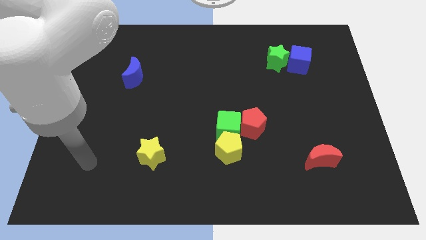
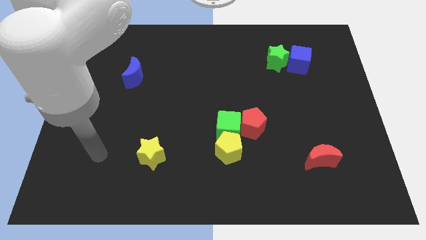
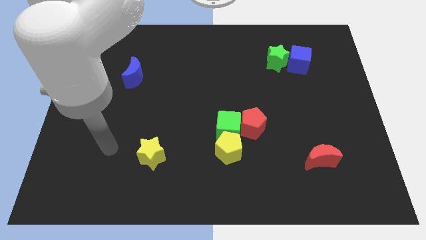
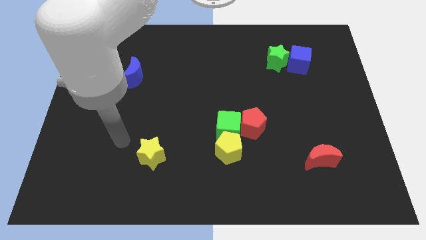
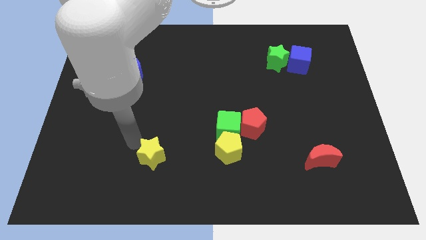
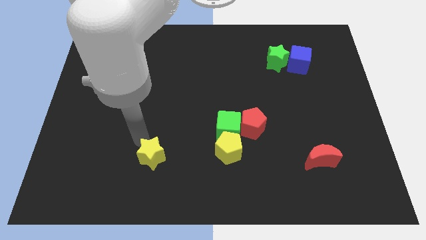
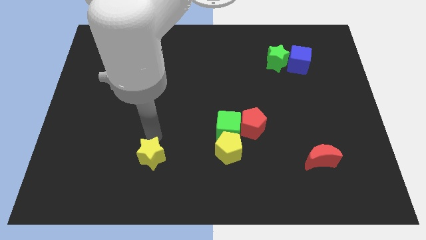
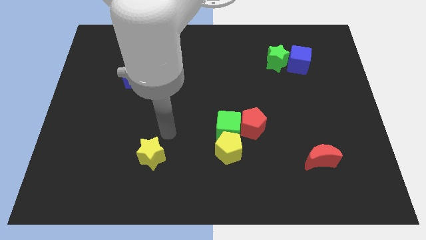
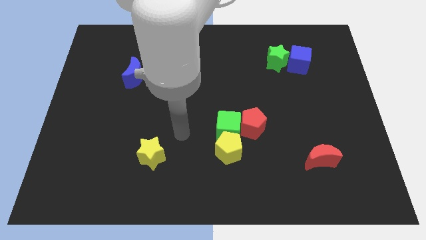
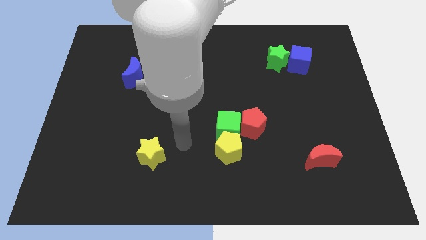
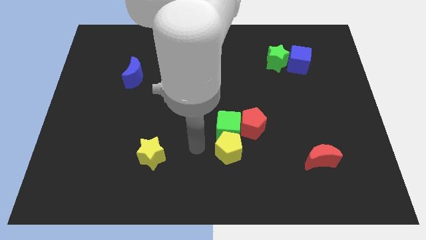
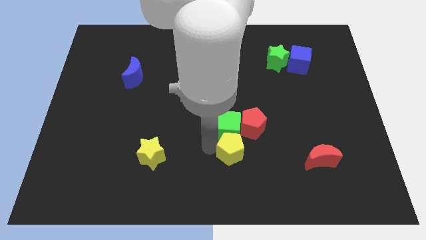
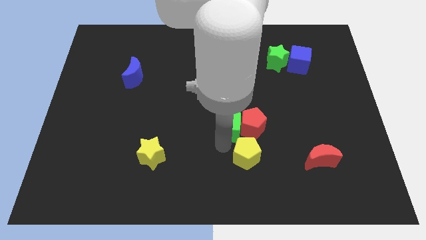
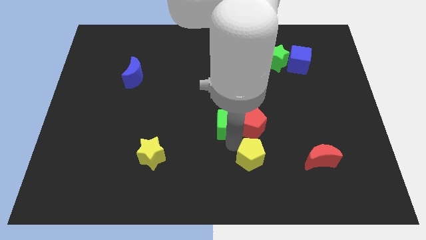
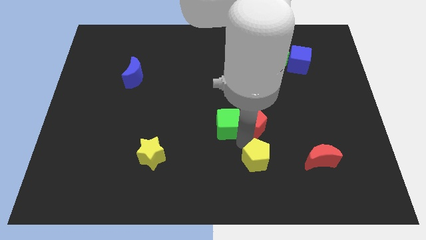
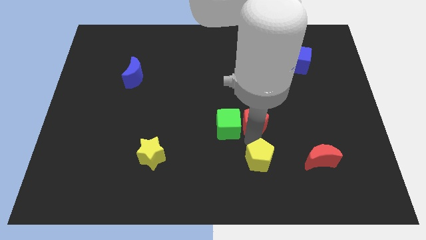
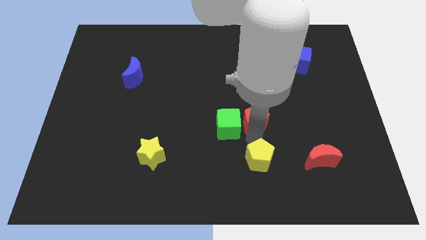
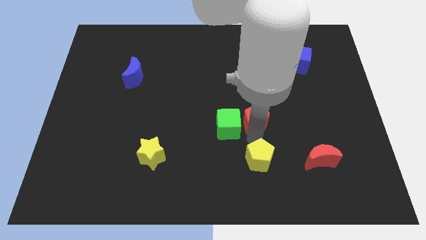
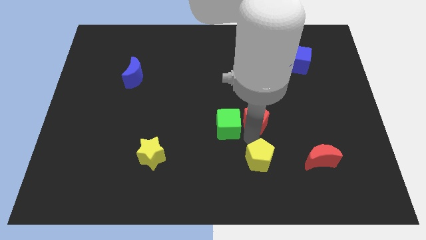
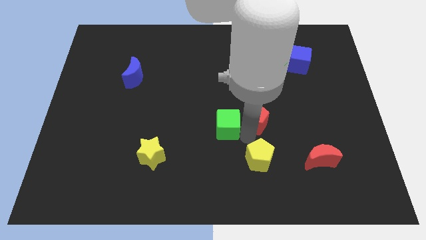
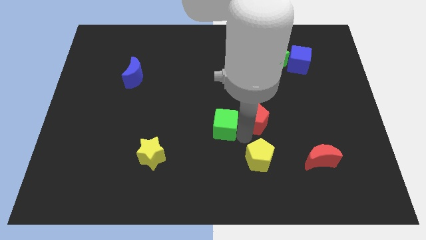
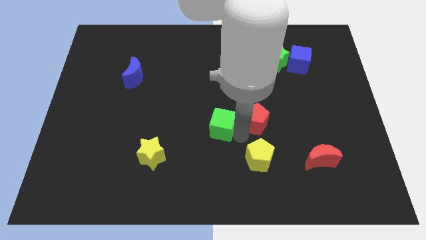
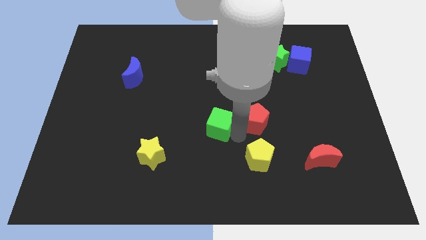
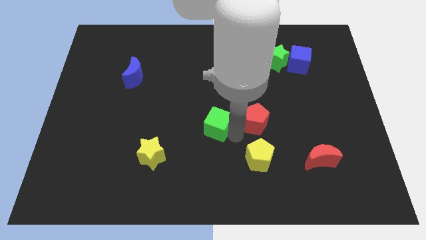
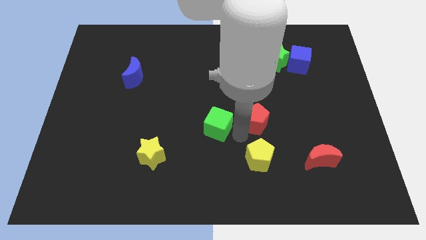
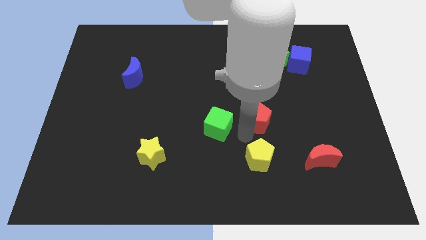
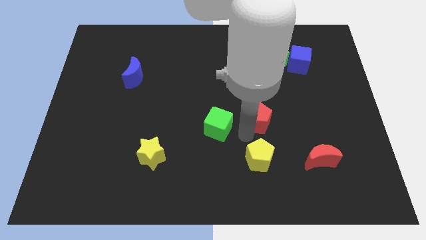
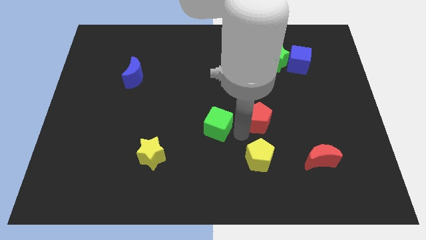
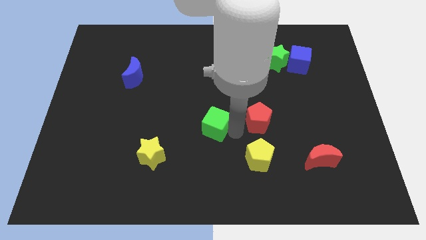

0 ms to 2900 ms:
move the green cube away from the yellow pentagon and red pentagon

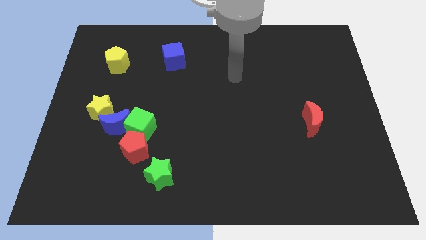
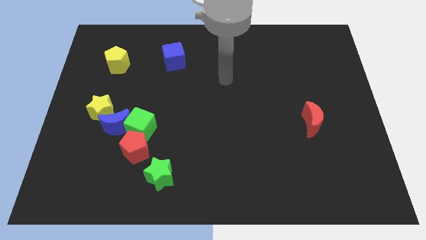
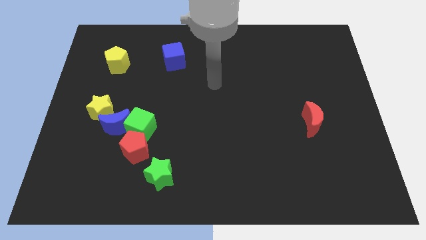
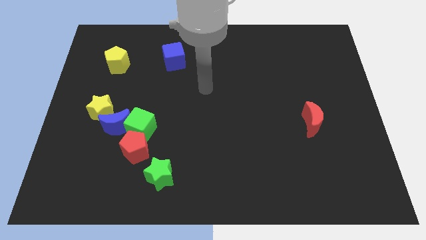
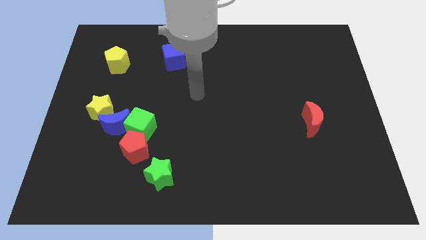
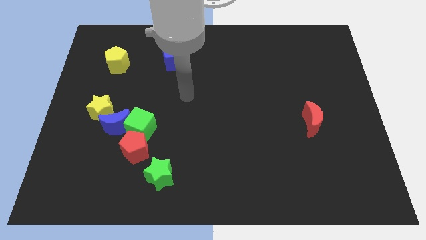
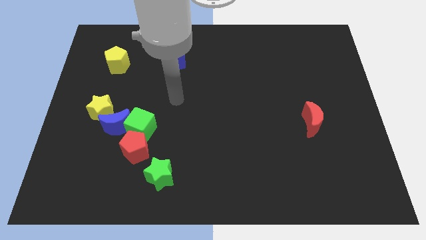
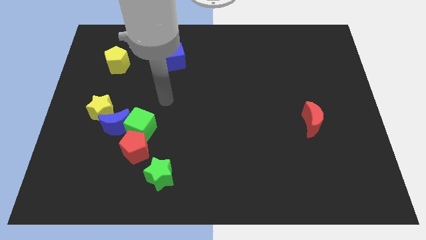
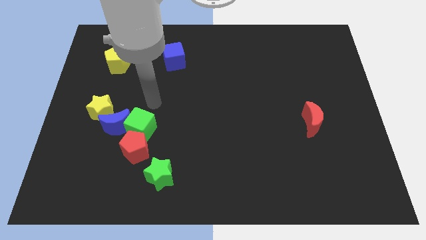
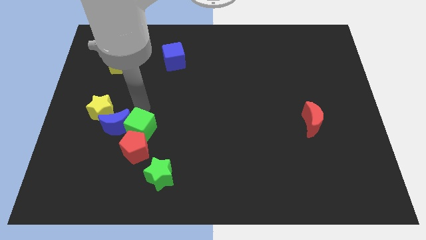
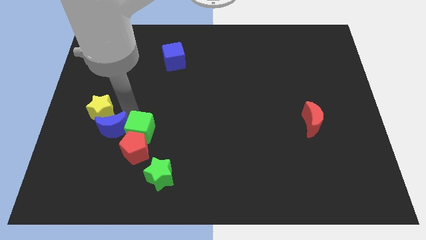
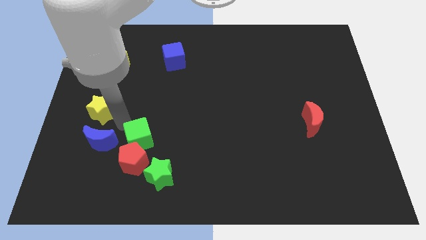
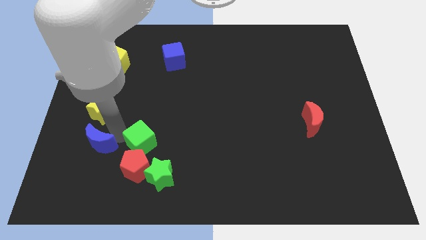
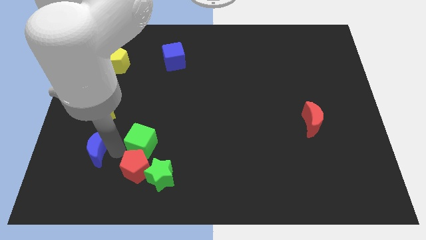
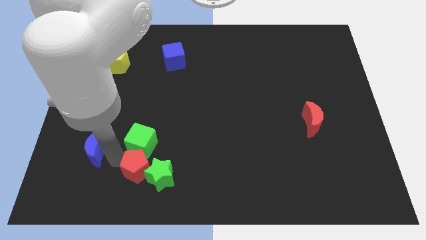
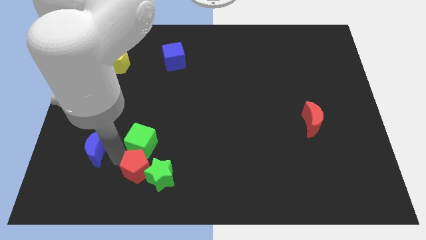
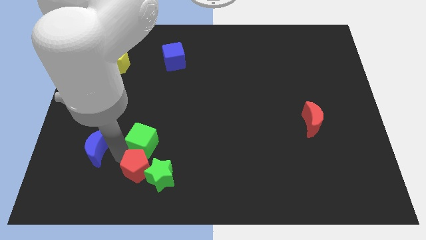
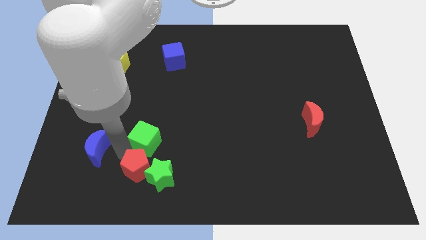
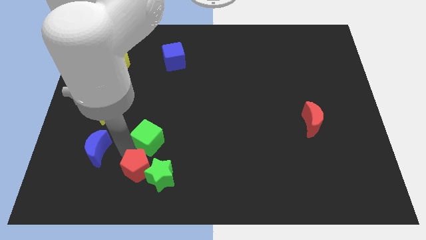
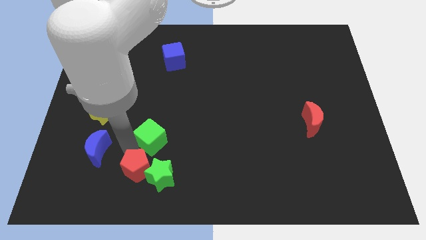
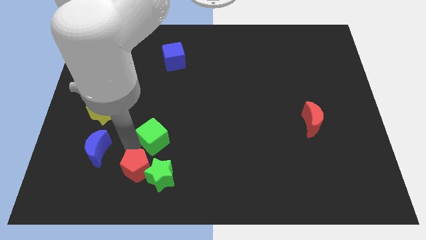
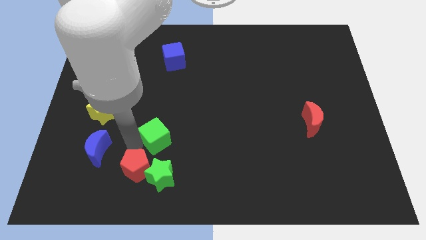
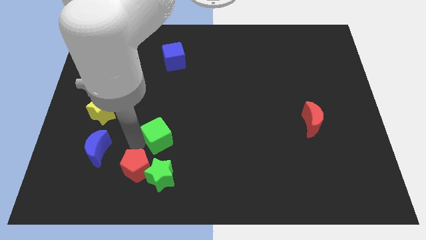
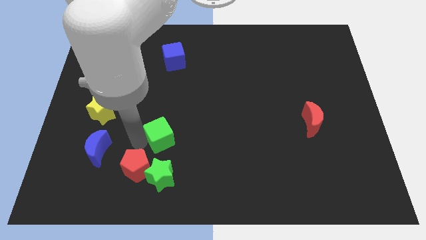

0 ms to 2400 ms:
move the green cube away from the blue moon and red pentagon

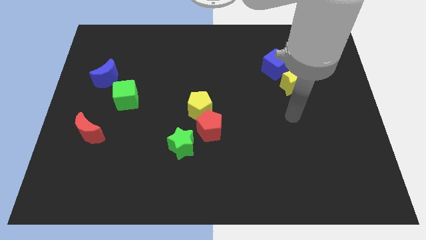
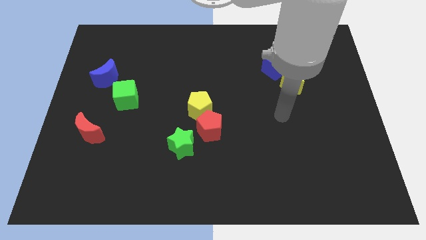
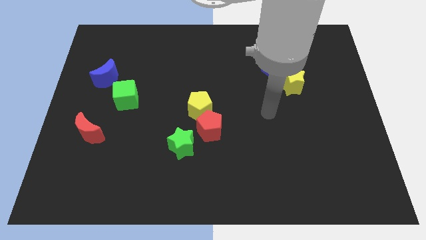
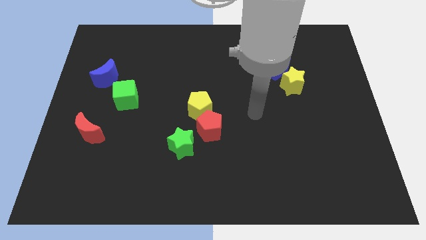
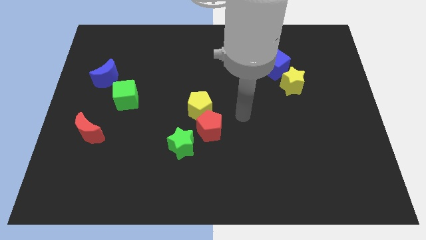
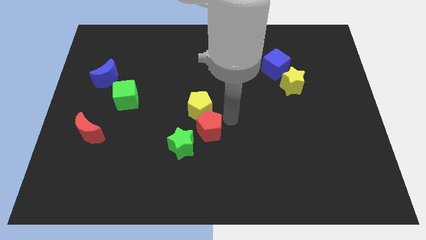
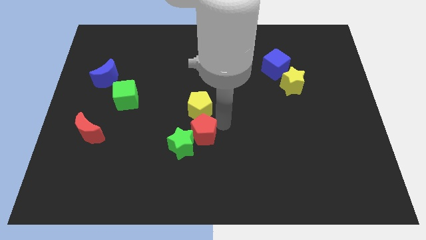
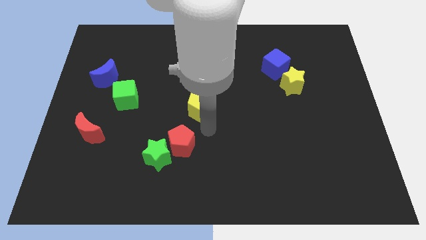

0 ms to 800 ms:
separate the yellow pentagon from the red pentagon

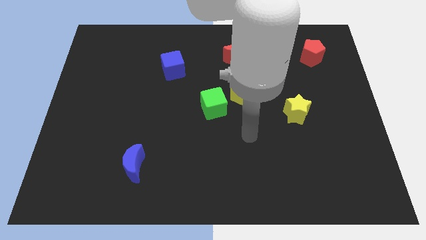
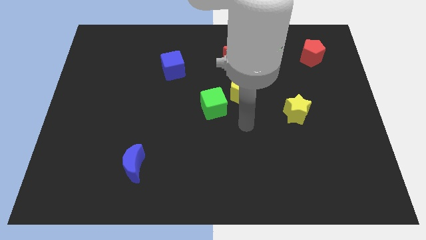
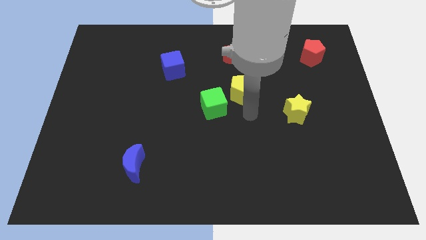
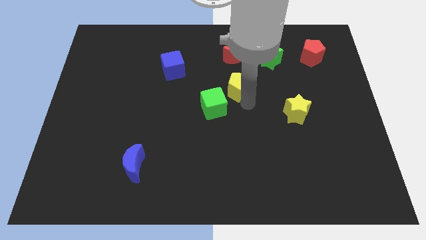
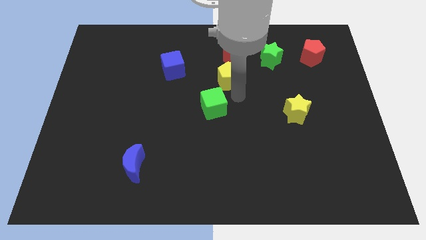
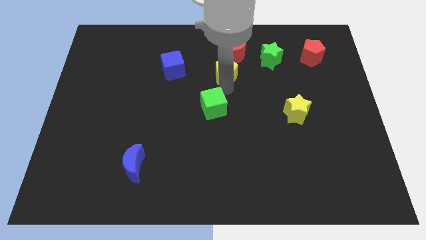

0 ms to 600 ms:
pull the green cube apart from the yellow pentagon

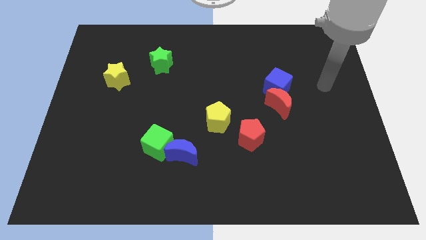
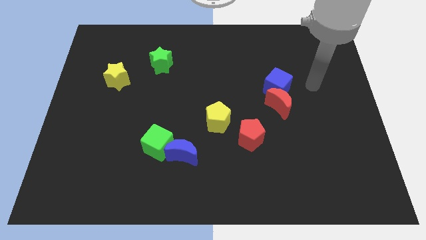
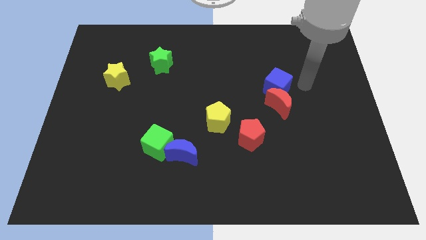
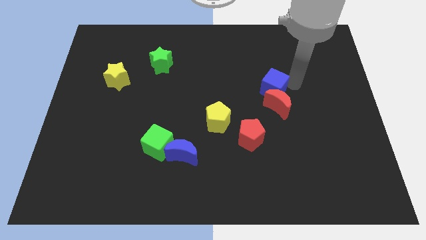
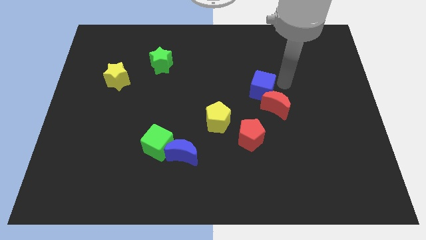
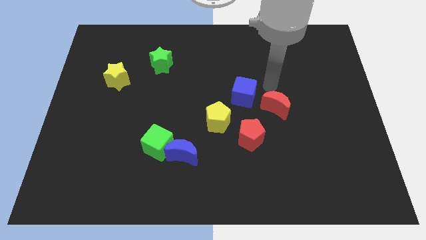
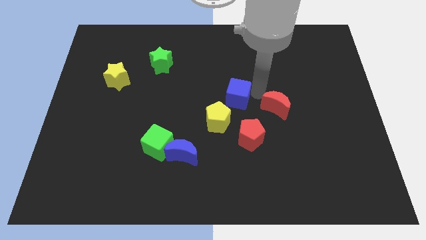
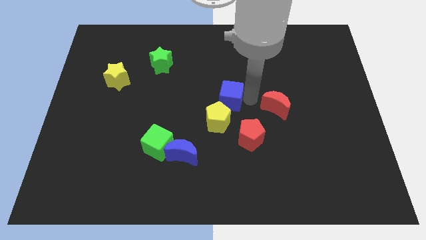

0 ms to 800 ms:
move the red moon away from the blue cube

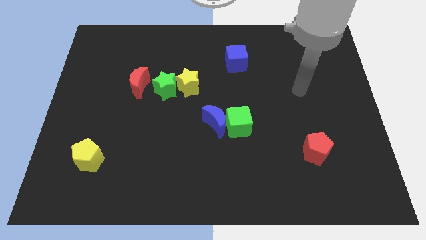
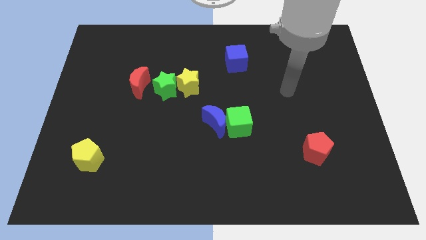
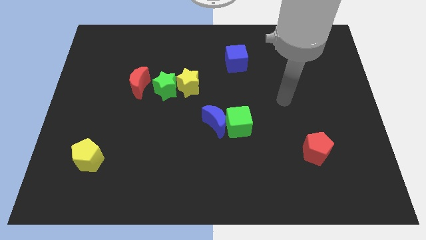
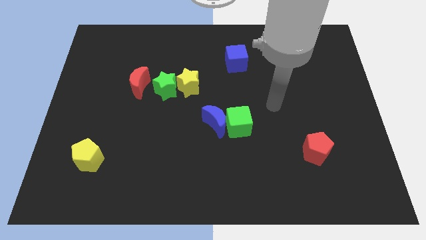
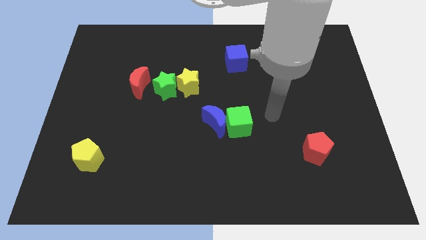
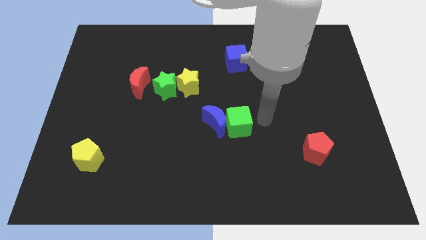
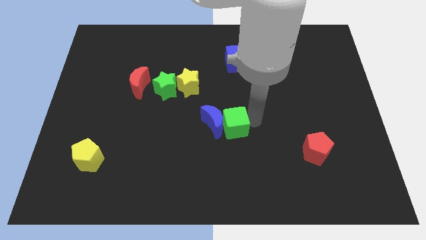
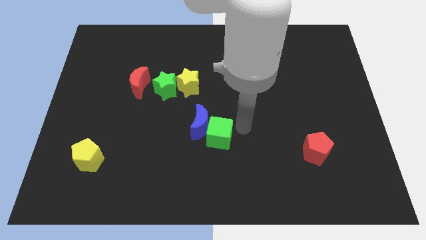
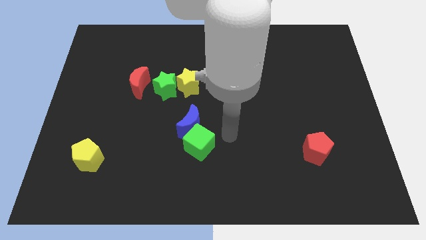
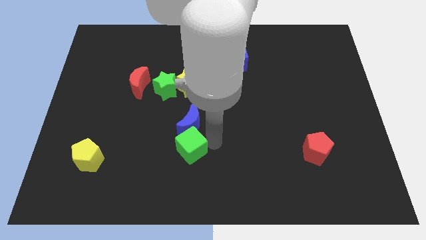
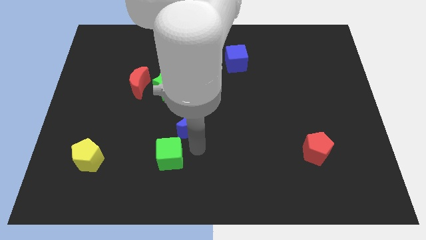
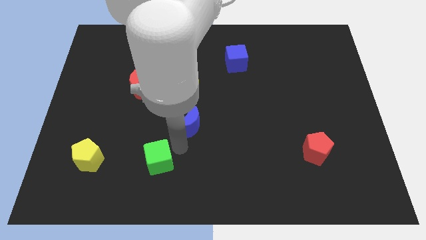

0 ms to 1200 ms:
move the blue moon away from the green cube

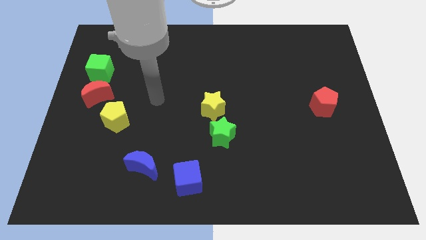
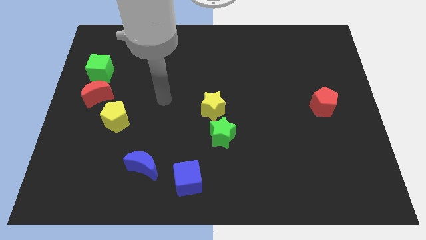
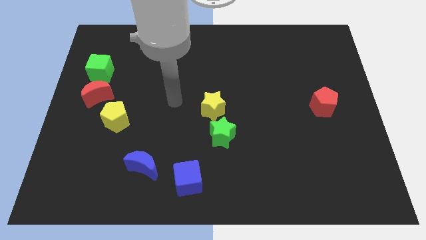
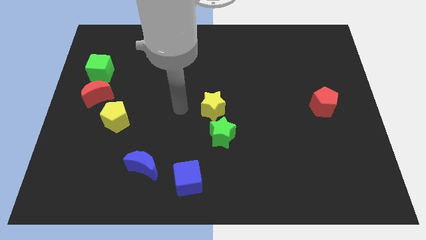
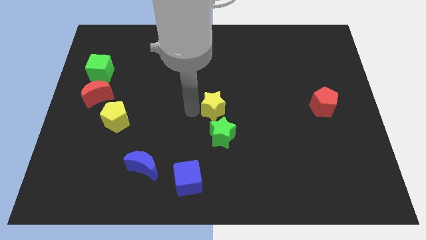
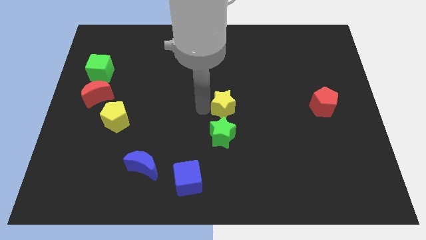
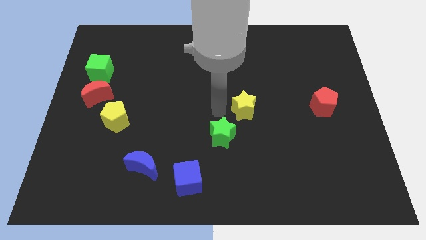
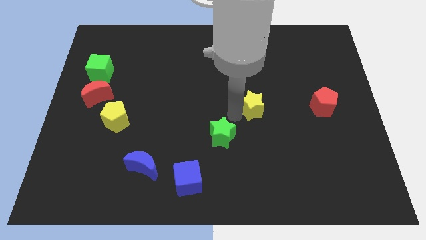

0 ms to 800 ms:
pull the green star apart from the yellow star
